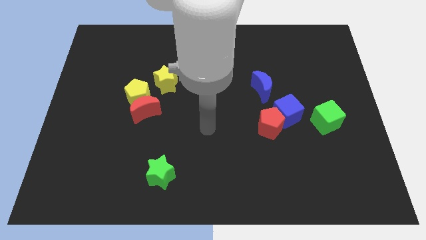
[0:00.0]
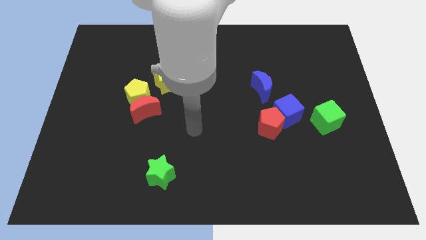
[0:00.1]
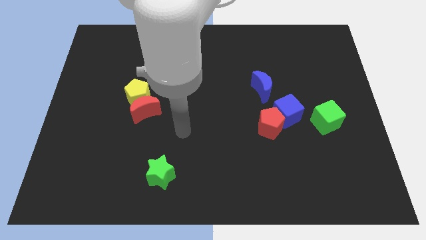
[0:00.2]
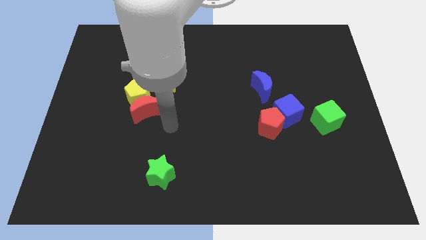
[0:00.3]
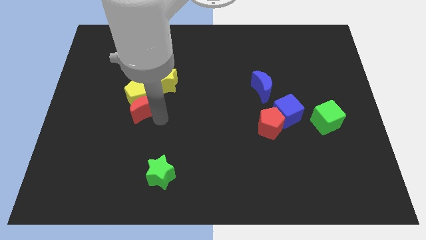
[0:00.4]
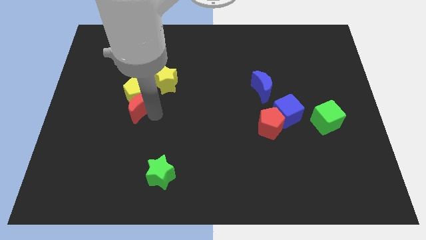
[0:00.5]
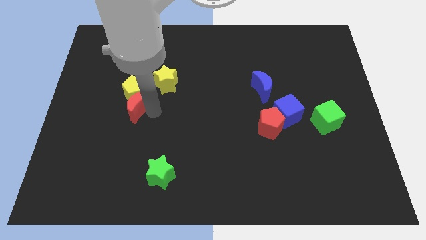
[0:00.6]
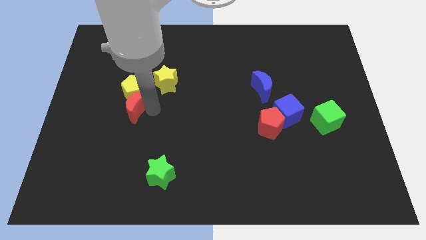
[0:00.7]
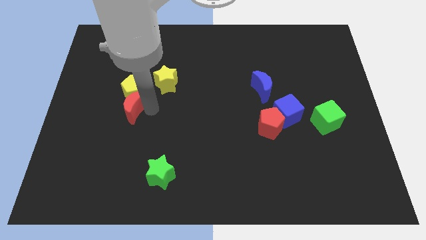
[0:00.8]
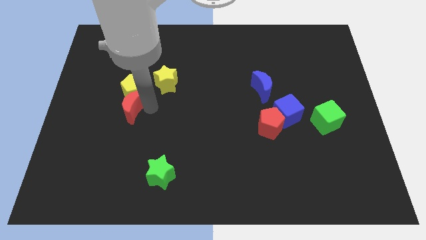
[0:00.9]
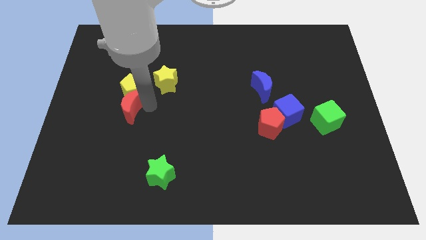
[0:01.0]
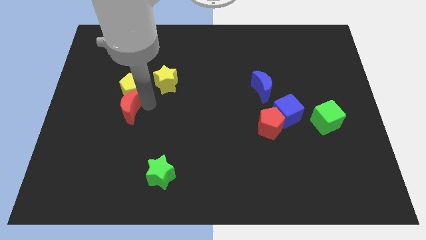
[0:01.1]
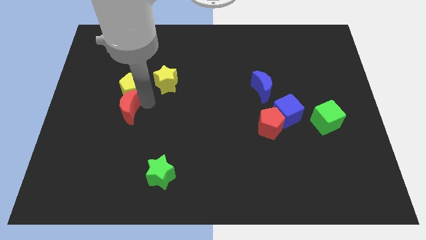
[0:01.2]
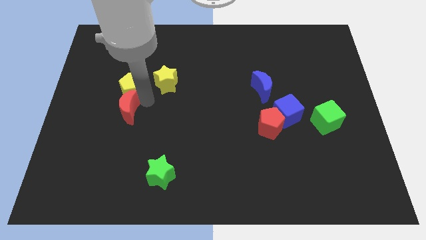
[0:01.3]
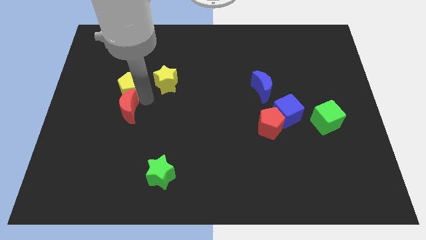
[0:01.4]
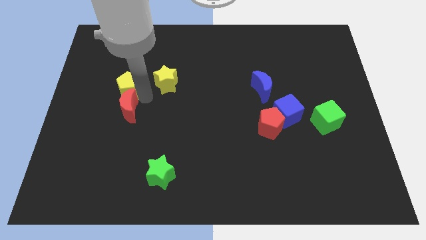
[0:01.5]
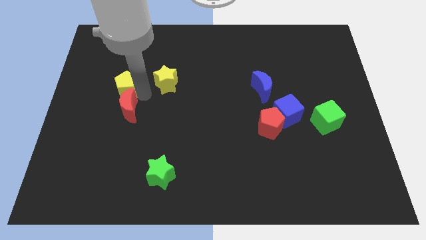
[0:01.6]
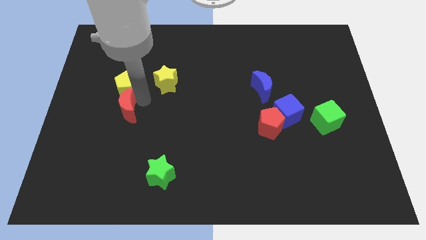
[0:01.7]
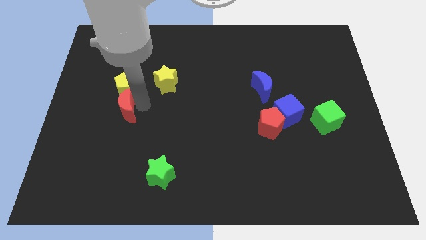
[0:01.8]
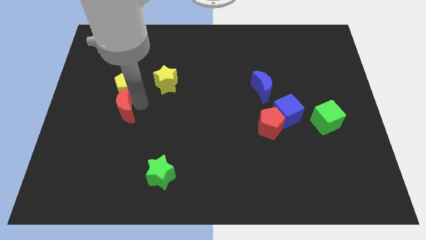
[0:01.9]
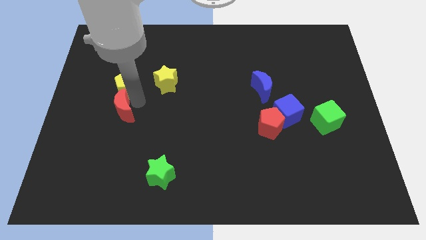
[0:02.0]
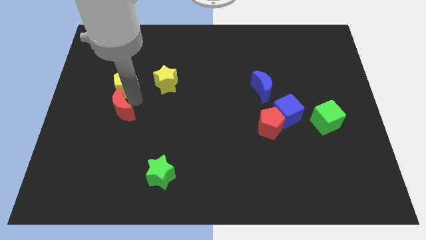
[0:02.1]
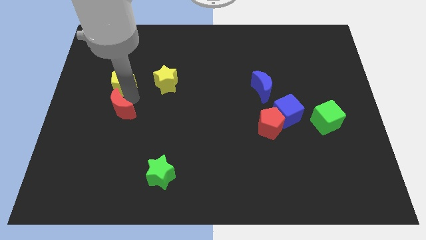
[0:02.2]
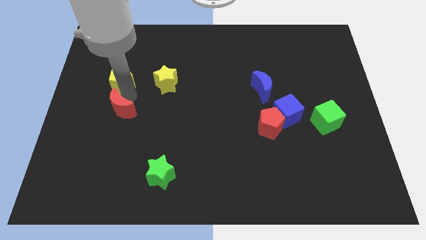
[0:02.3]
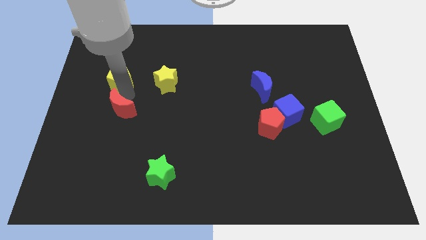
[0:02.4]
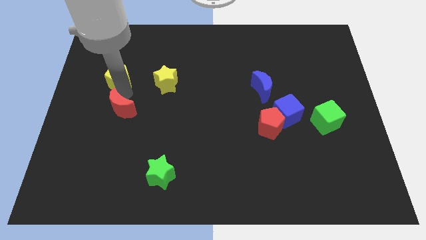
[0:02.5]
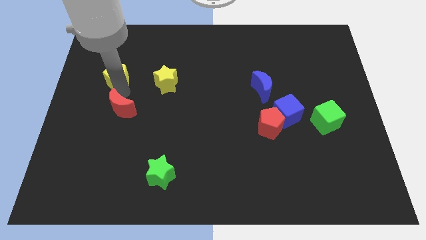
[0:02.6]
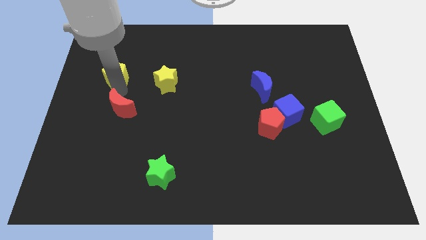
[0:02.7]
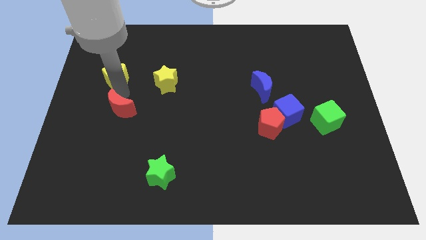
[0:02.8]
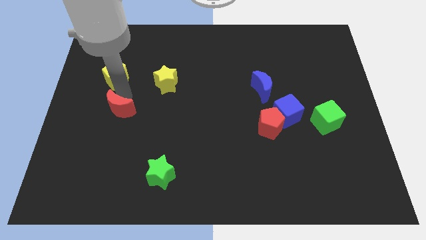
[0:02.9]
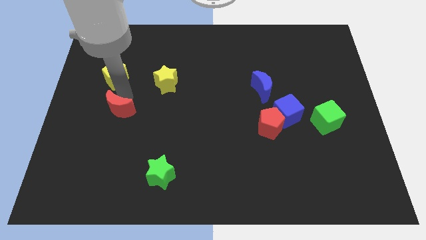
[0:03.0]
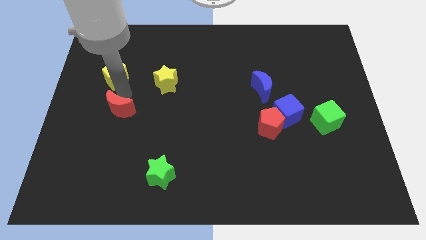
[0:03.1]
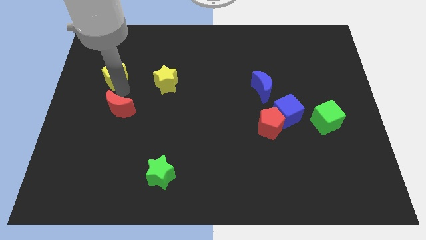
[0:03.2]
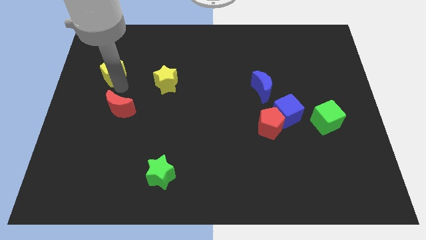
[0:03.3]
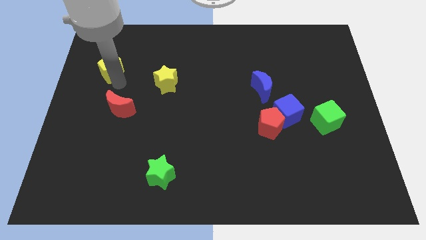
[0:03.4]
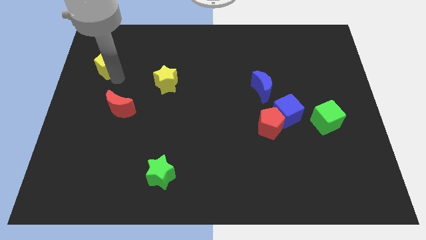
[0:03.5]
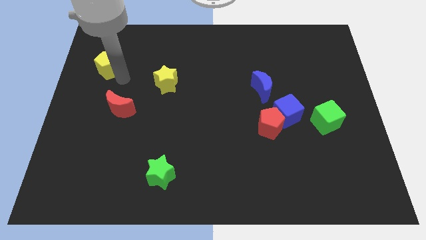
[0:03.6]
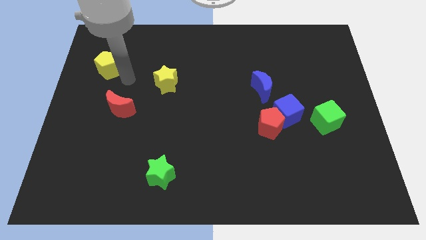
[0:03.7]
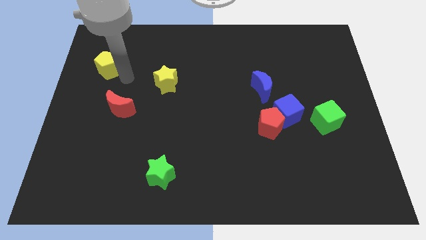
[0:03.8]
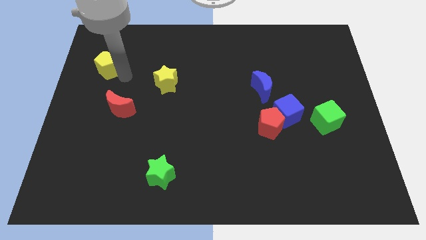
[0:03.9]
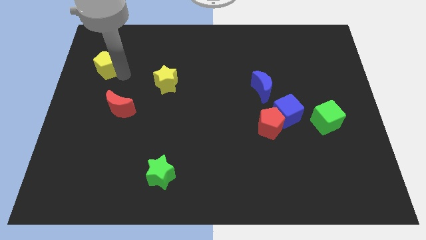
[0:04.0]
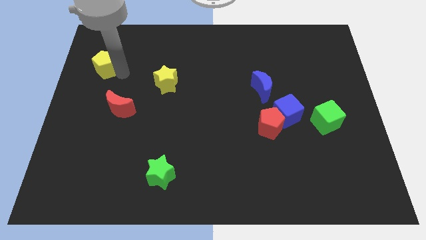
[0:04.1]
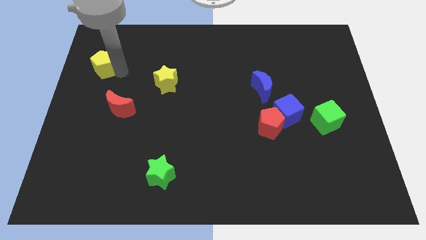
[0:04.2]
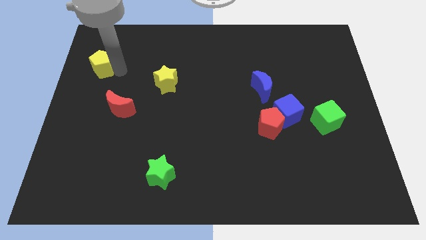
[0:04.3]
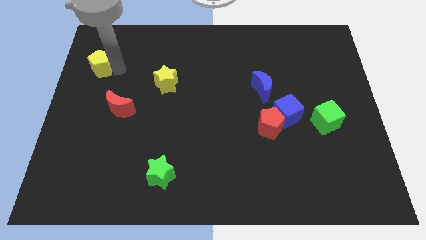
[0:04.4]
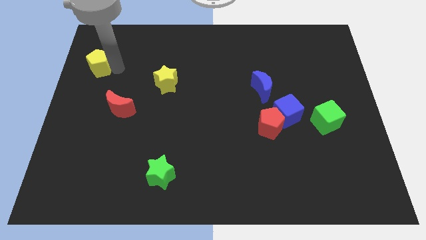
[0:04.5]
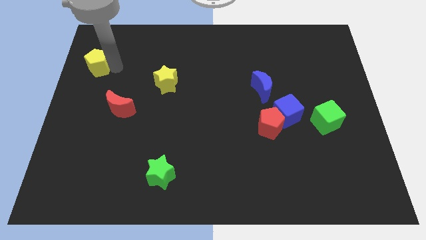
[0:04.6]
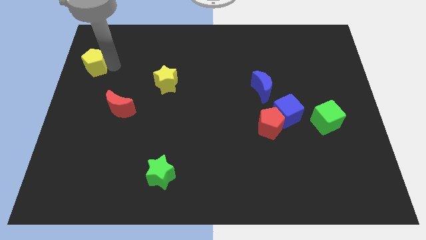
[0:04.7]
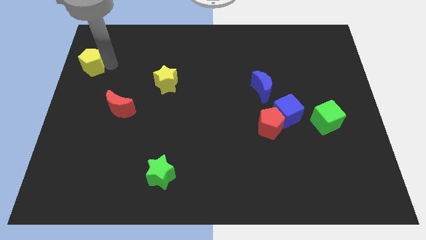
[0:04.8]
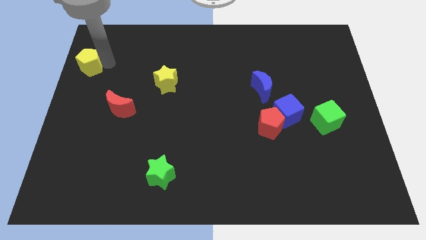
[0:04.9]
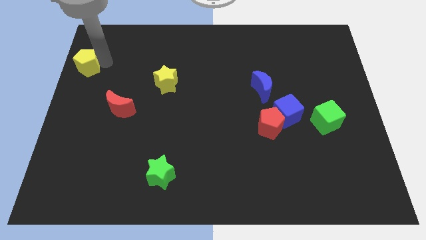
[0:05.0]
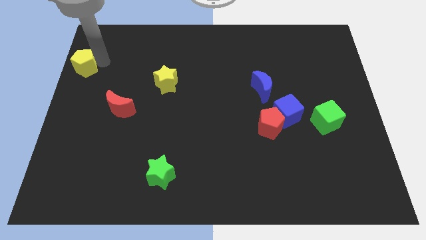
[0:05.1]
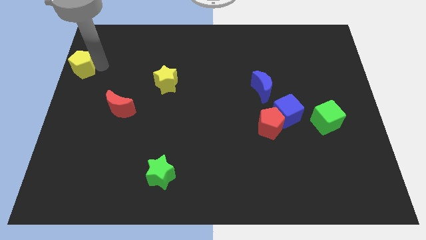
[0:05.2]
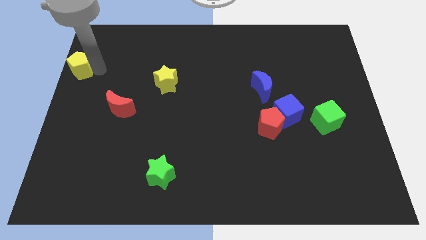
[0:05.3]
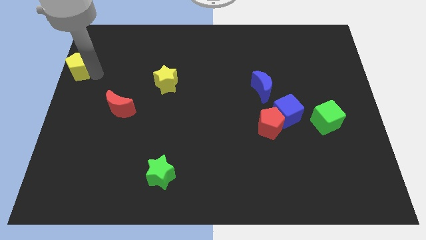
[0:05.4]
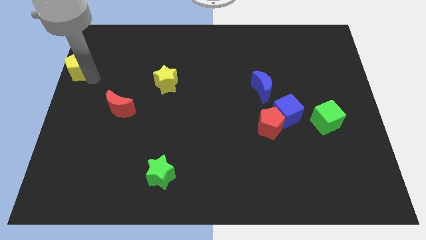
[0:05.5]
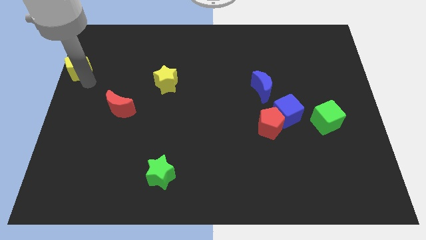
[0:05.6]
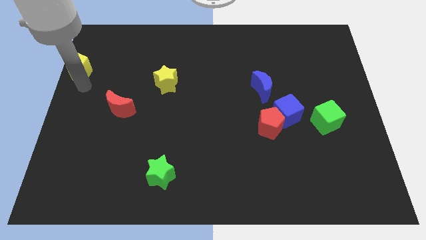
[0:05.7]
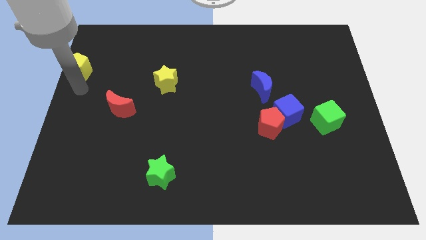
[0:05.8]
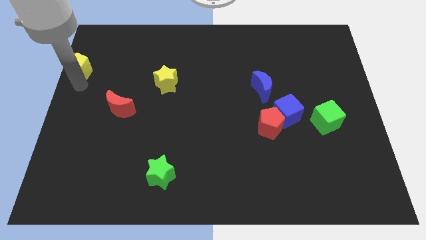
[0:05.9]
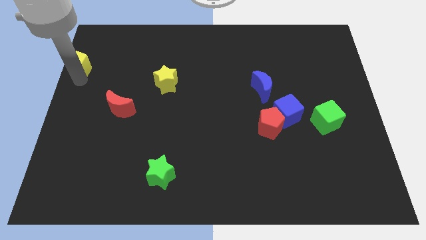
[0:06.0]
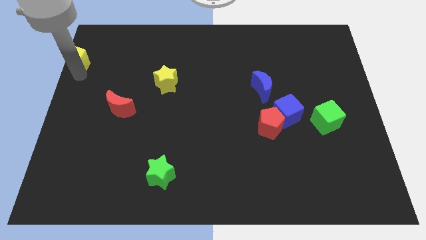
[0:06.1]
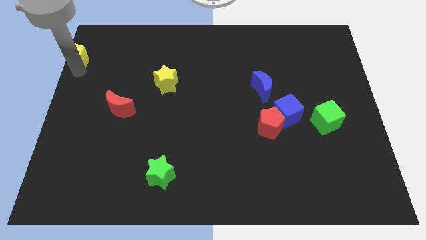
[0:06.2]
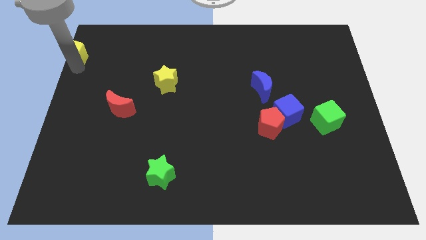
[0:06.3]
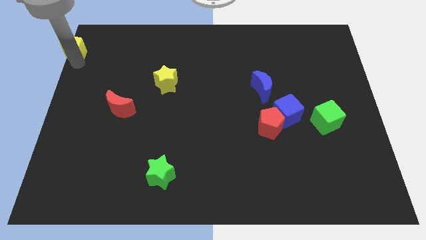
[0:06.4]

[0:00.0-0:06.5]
move the yellow pentagon to the top left
